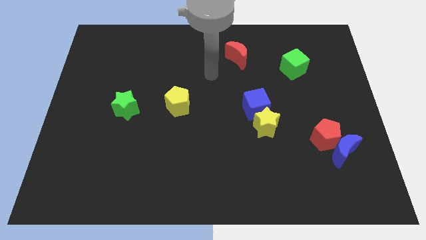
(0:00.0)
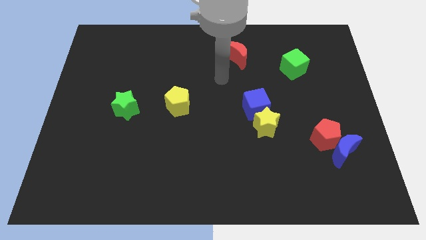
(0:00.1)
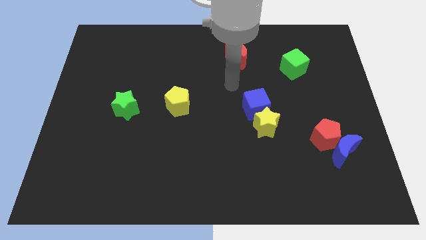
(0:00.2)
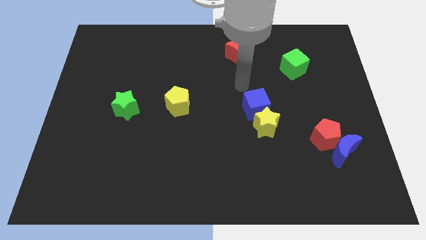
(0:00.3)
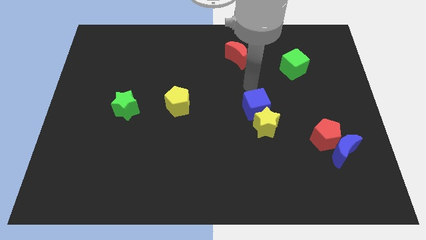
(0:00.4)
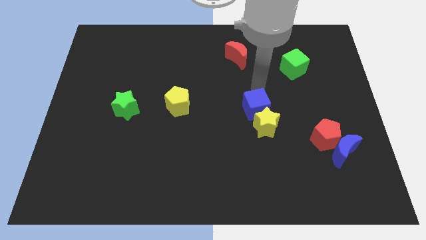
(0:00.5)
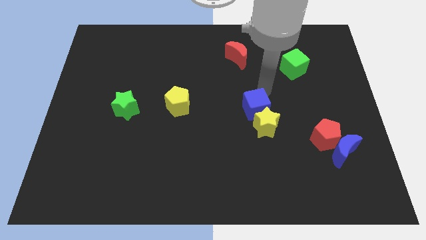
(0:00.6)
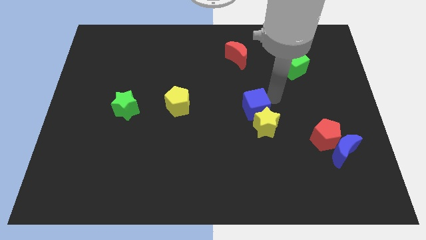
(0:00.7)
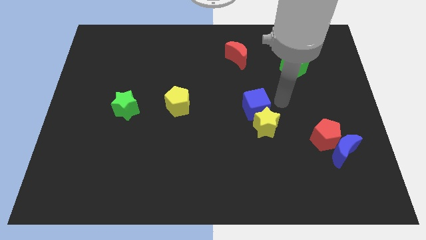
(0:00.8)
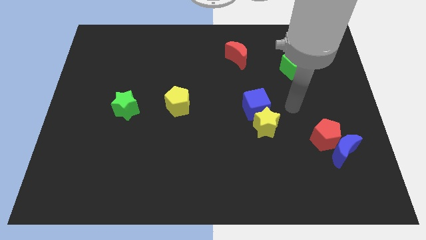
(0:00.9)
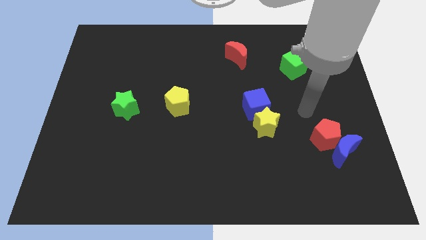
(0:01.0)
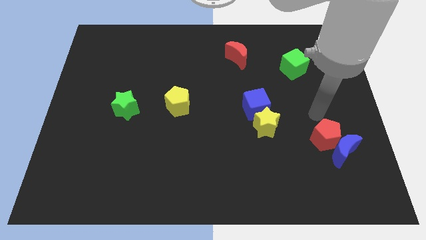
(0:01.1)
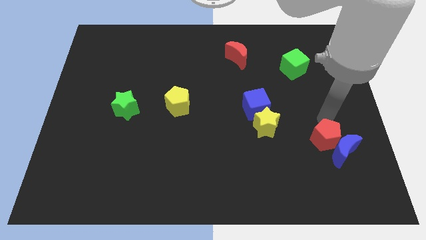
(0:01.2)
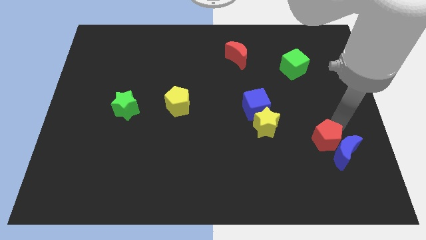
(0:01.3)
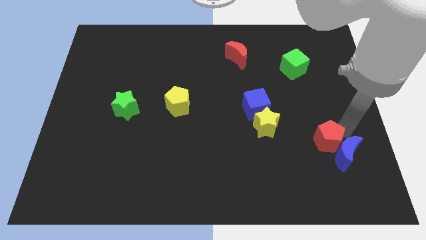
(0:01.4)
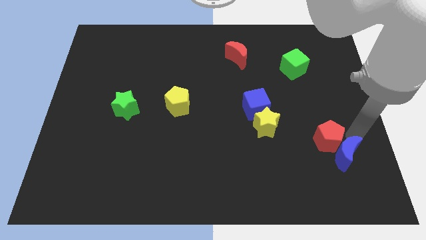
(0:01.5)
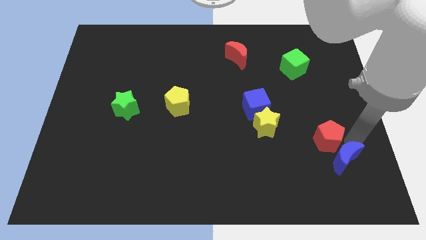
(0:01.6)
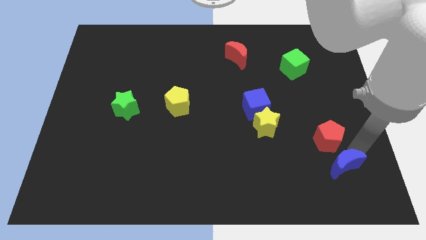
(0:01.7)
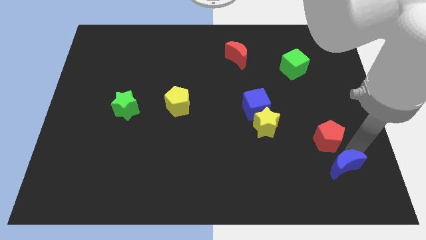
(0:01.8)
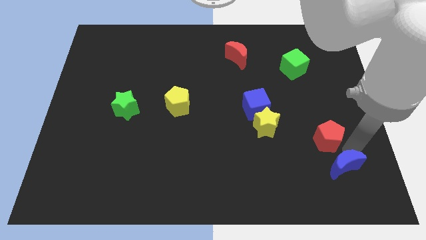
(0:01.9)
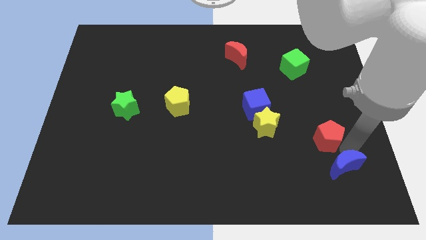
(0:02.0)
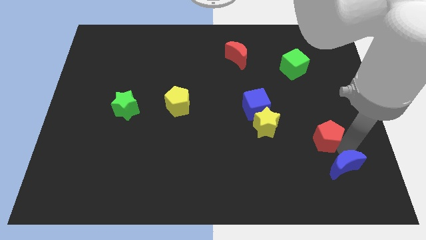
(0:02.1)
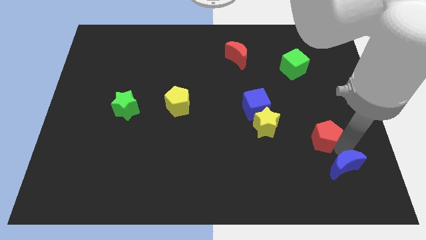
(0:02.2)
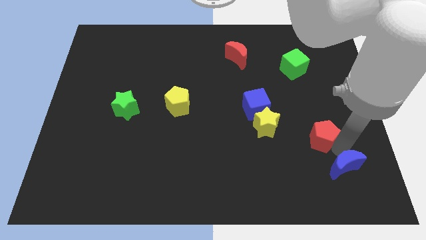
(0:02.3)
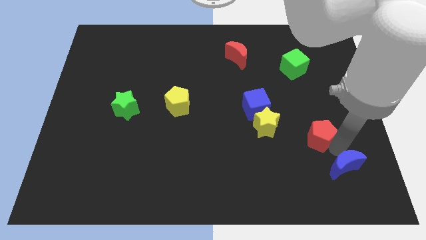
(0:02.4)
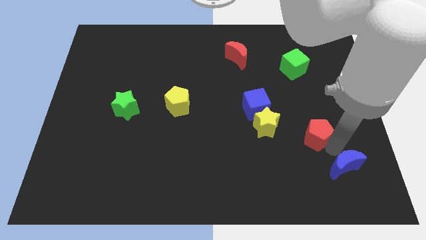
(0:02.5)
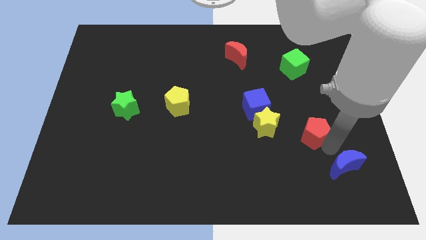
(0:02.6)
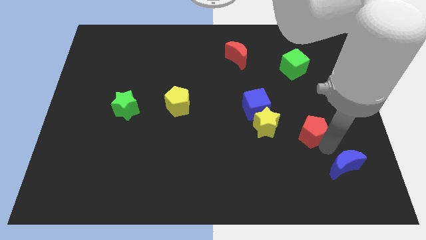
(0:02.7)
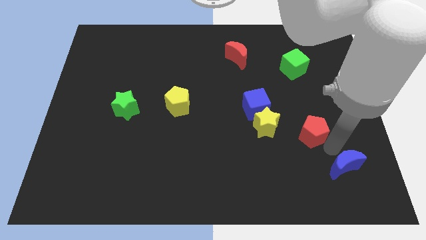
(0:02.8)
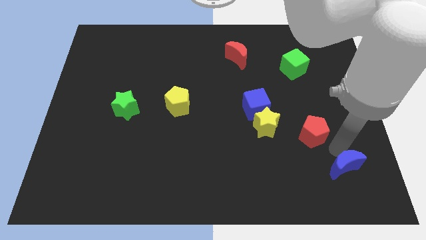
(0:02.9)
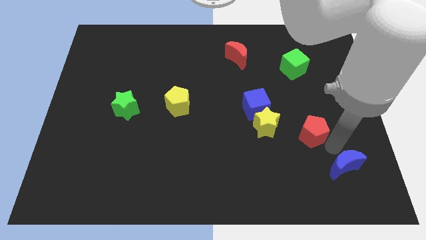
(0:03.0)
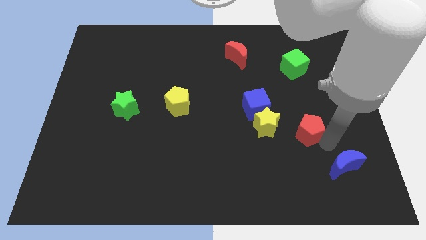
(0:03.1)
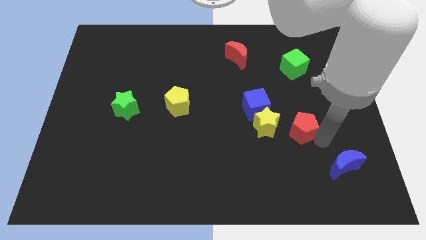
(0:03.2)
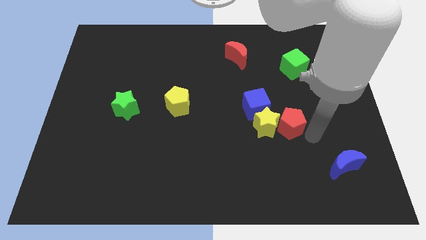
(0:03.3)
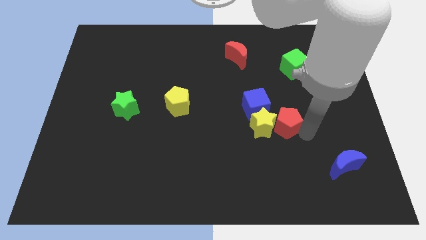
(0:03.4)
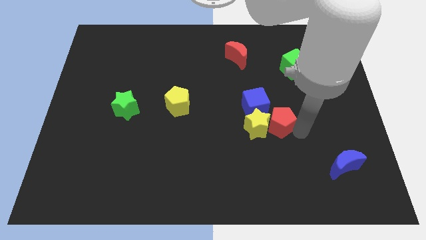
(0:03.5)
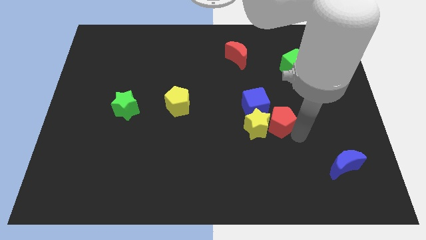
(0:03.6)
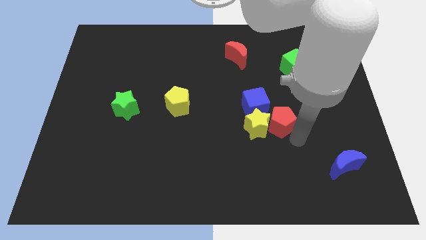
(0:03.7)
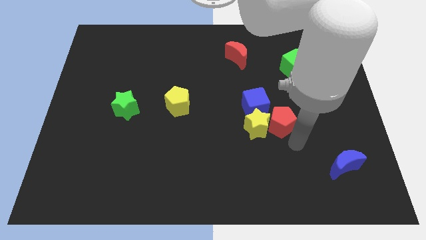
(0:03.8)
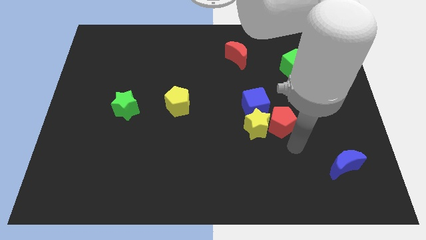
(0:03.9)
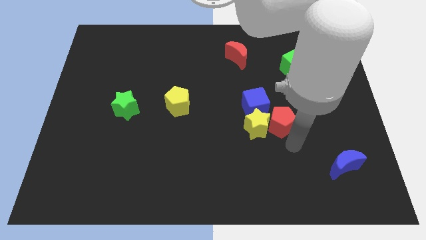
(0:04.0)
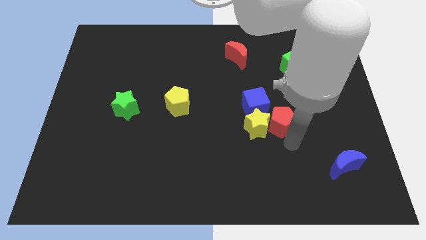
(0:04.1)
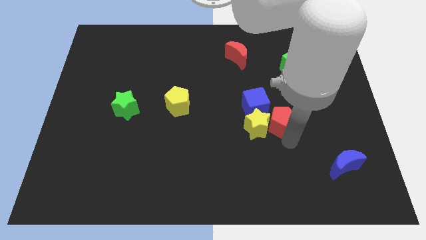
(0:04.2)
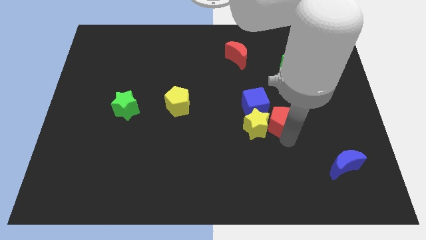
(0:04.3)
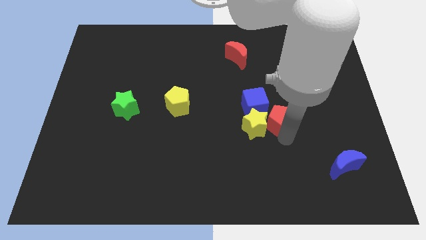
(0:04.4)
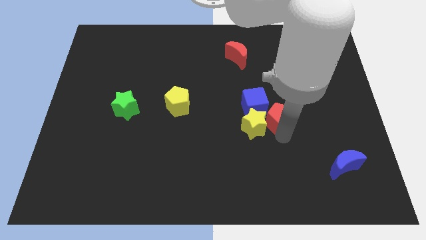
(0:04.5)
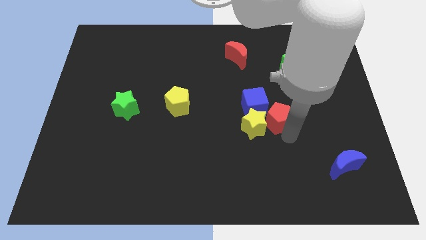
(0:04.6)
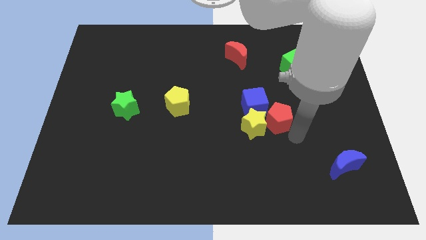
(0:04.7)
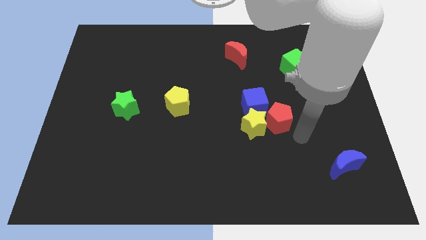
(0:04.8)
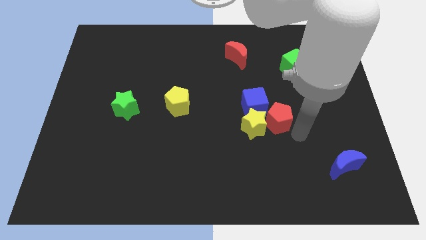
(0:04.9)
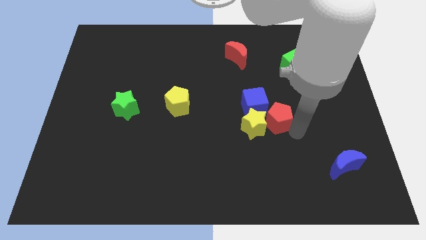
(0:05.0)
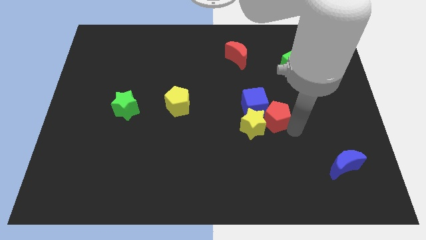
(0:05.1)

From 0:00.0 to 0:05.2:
put the red pentagon towards the blue cube

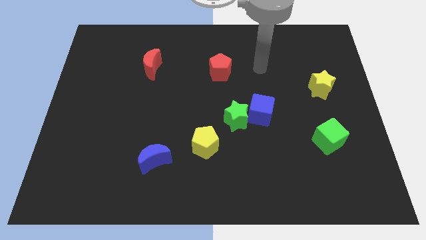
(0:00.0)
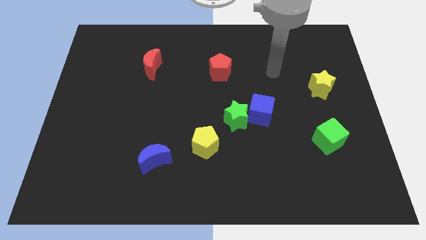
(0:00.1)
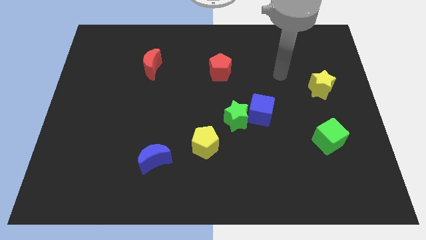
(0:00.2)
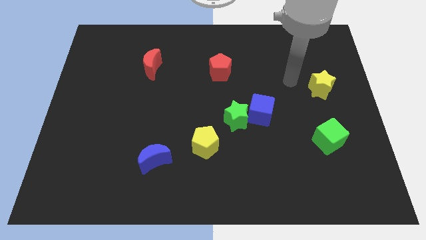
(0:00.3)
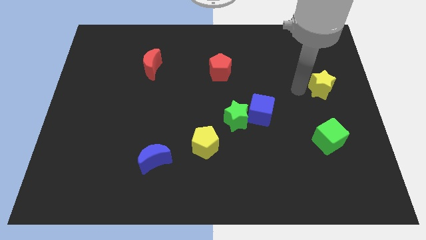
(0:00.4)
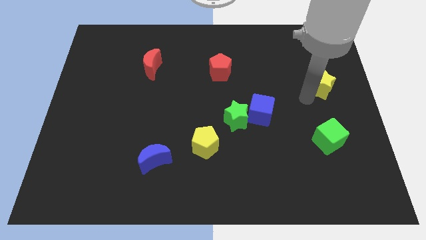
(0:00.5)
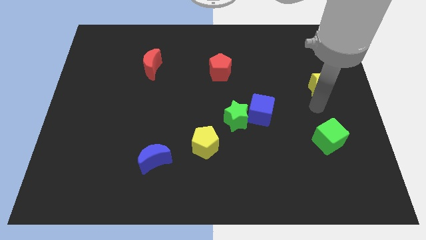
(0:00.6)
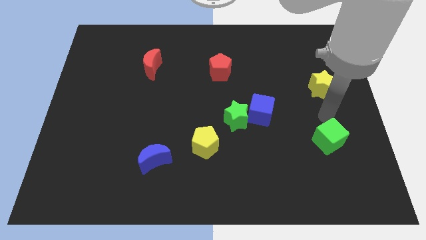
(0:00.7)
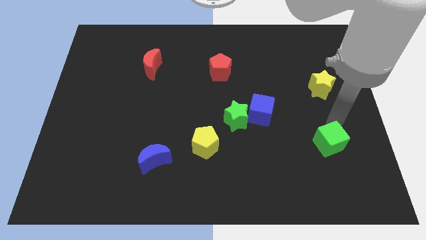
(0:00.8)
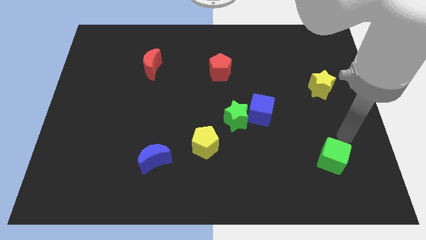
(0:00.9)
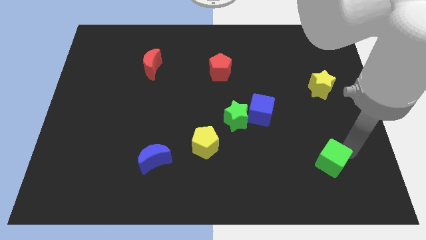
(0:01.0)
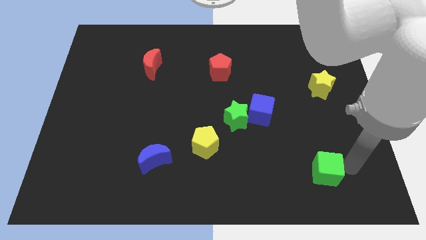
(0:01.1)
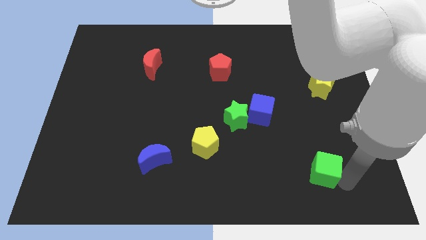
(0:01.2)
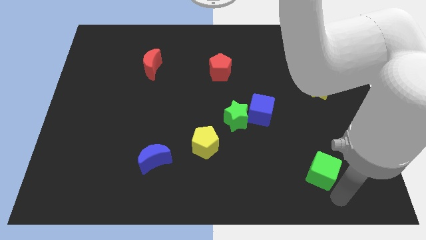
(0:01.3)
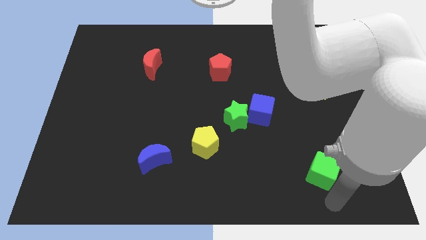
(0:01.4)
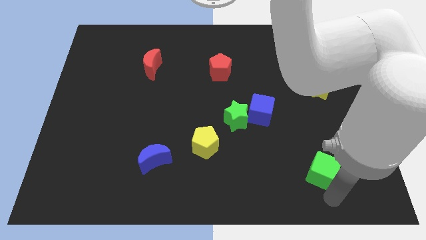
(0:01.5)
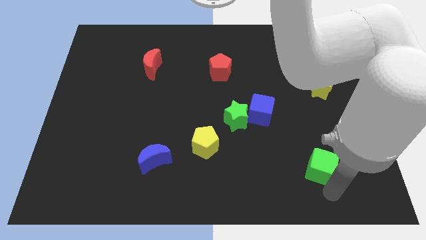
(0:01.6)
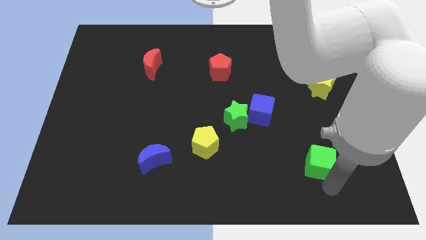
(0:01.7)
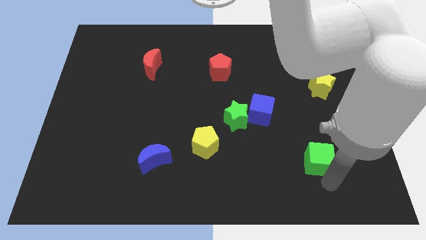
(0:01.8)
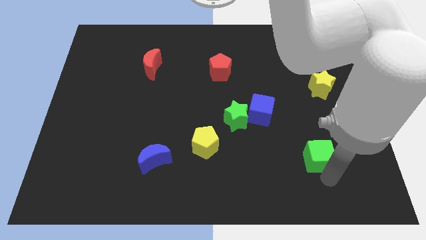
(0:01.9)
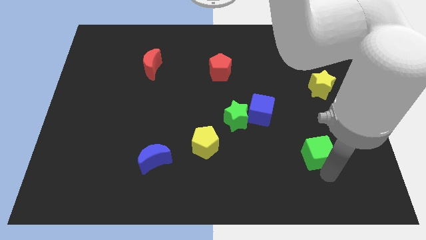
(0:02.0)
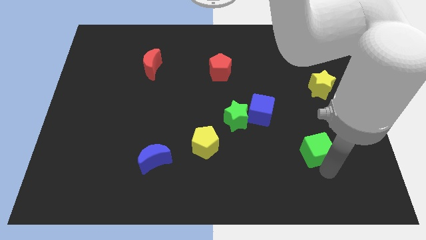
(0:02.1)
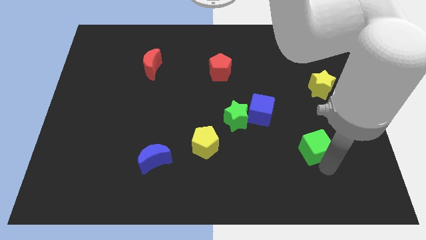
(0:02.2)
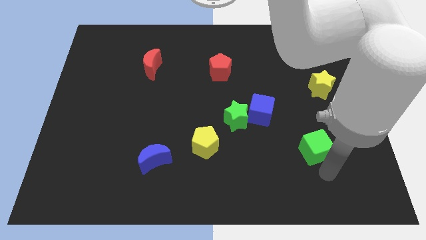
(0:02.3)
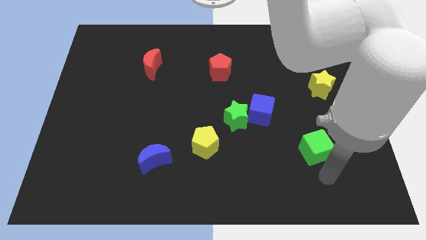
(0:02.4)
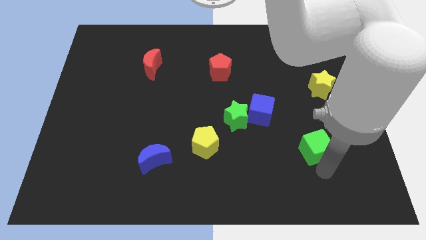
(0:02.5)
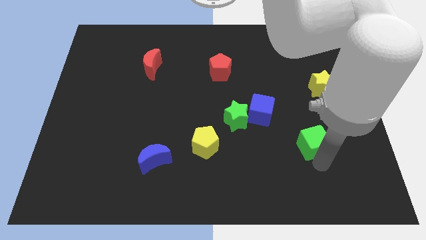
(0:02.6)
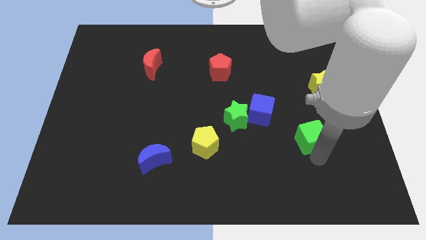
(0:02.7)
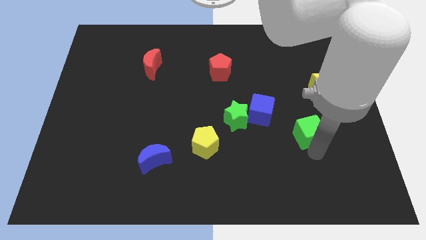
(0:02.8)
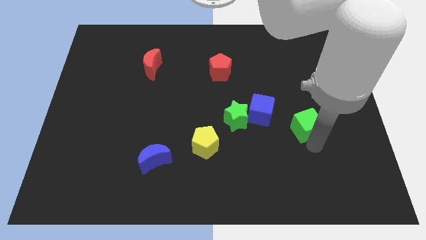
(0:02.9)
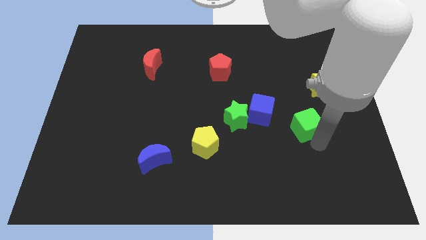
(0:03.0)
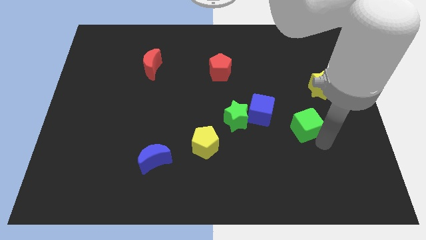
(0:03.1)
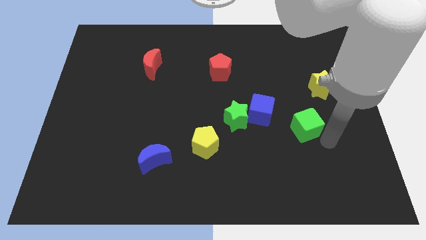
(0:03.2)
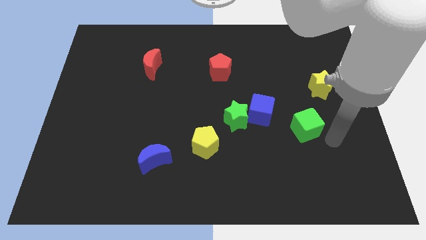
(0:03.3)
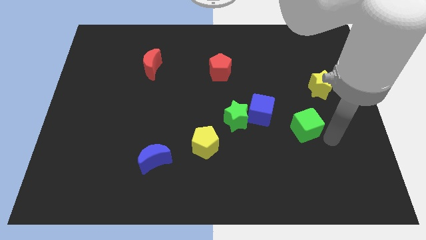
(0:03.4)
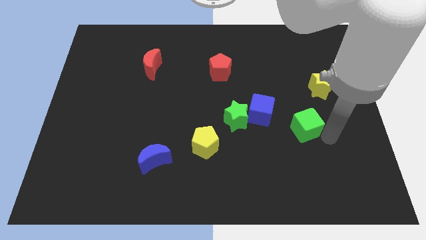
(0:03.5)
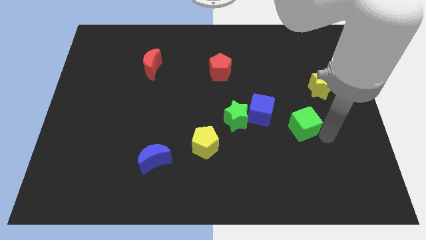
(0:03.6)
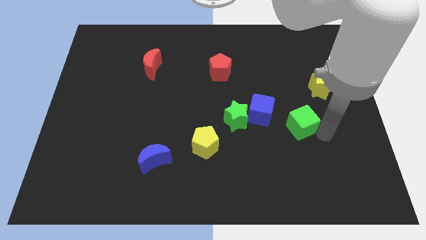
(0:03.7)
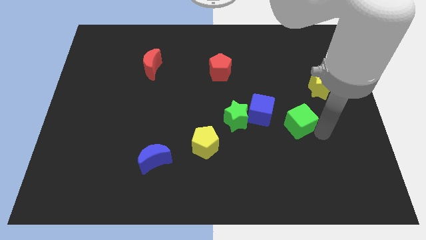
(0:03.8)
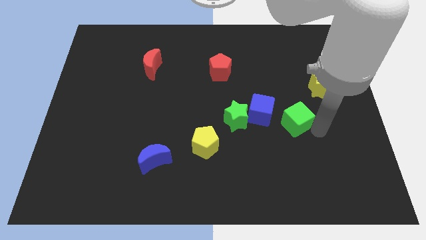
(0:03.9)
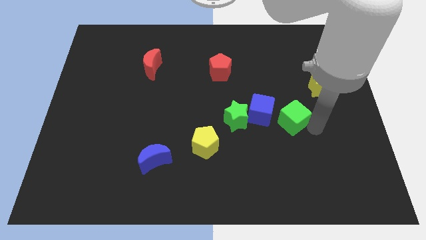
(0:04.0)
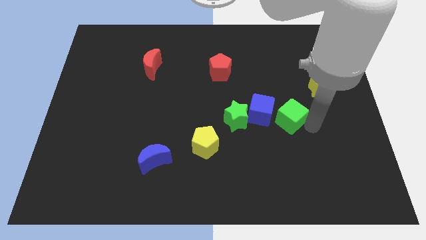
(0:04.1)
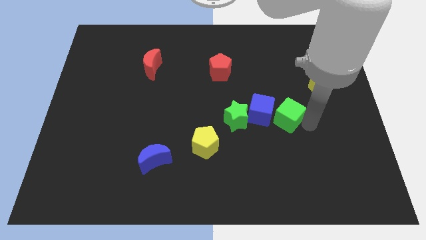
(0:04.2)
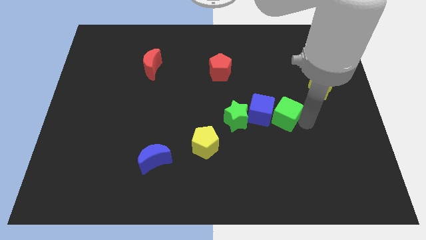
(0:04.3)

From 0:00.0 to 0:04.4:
put the green cube towards the blue cube
